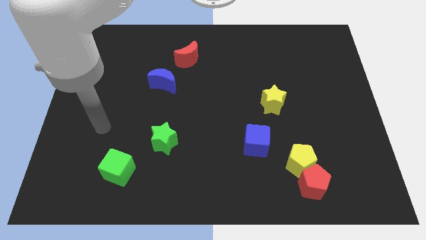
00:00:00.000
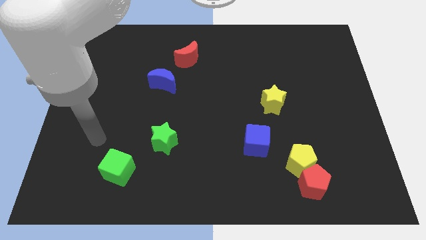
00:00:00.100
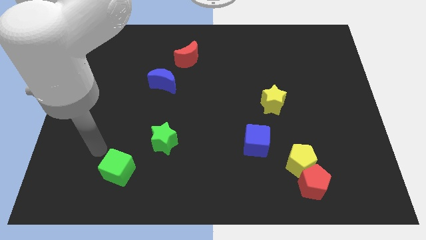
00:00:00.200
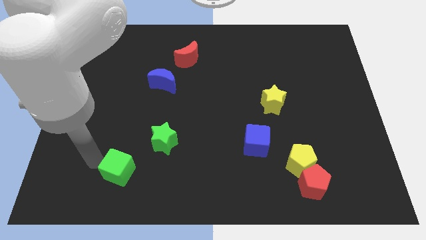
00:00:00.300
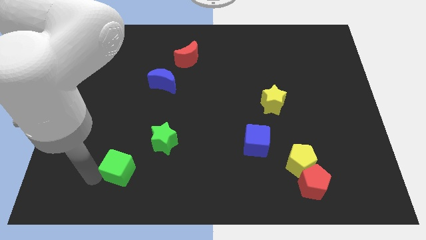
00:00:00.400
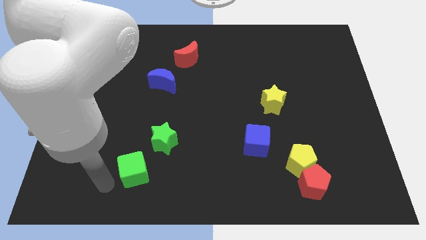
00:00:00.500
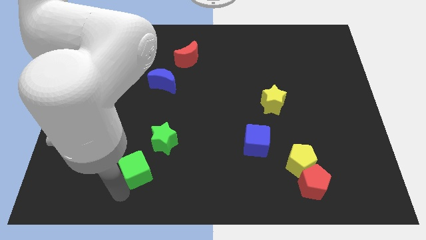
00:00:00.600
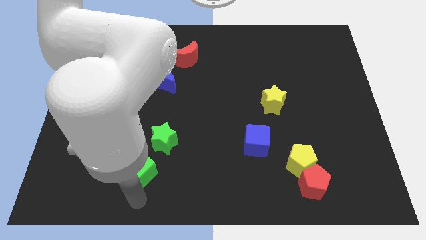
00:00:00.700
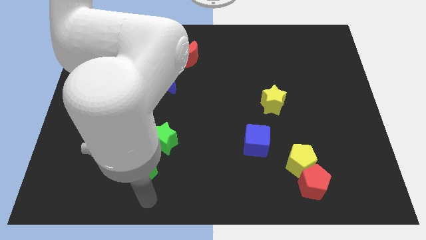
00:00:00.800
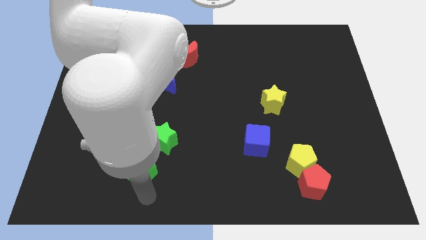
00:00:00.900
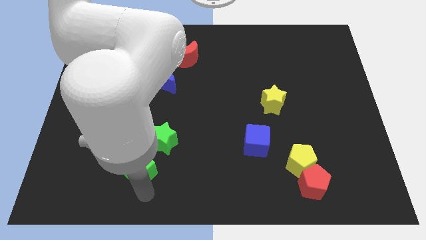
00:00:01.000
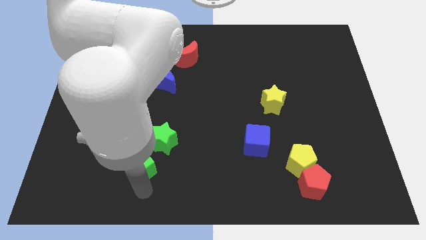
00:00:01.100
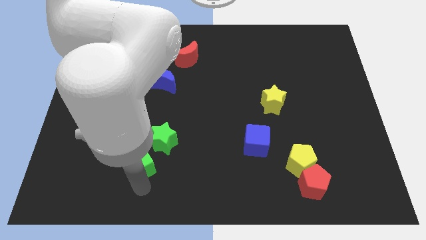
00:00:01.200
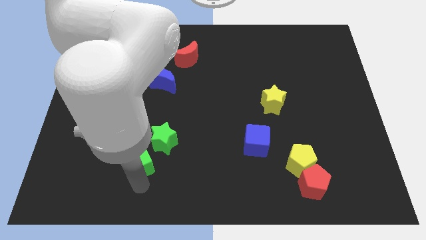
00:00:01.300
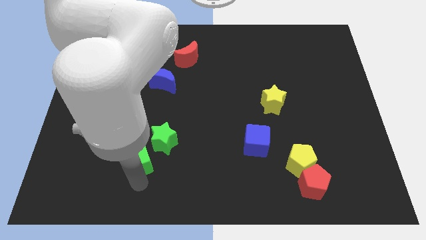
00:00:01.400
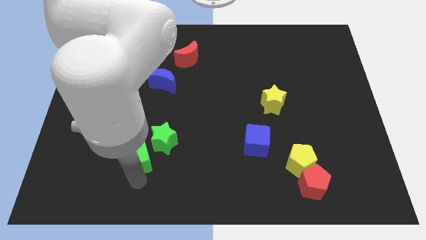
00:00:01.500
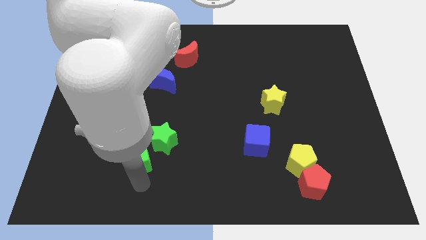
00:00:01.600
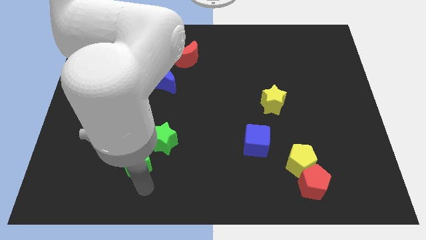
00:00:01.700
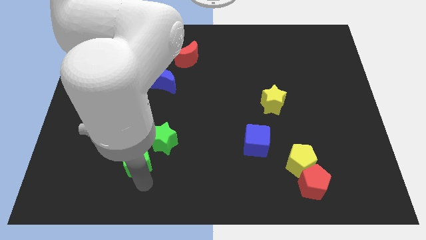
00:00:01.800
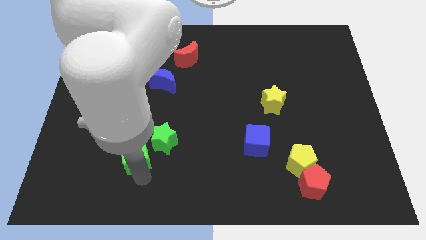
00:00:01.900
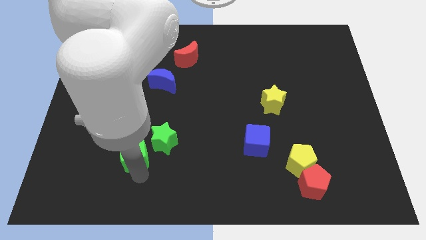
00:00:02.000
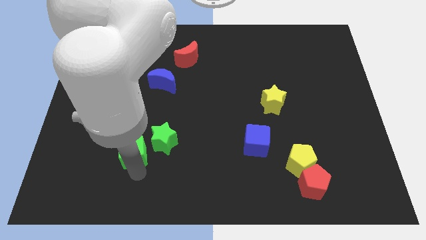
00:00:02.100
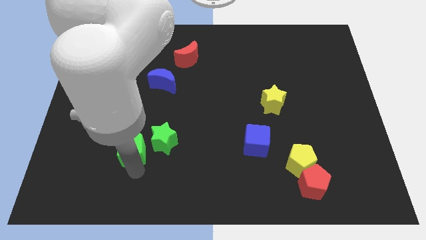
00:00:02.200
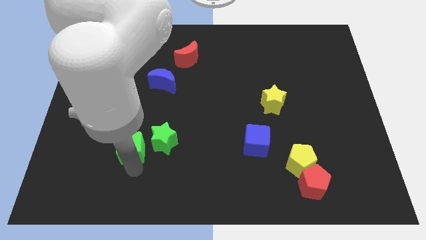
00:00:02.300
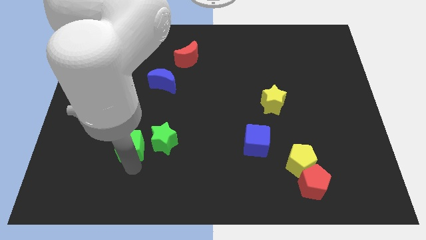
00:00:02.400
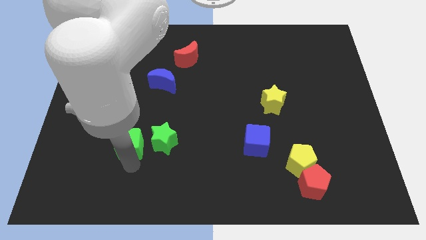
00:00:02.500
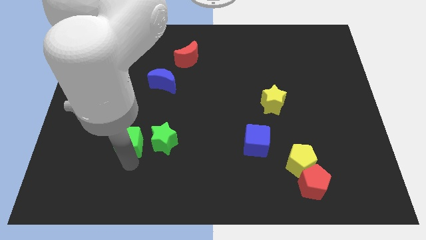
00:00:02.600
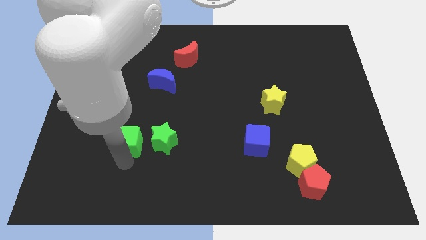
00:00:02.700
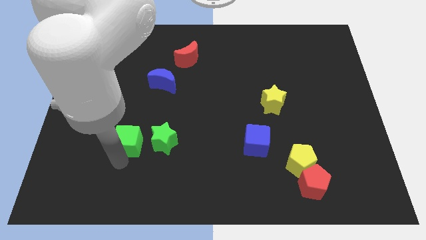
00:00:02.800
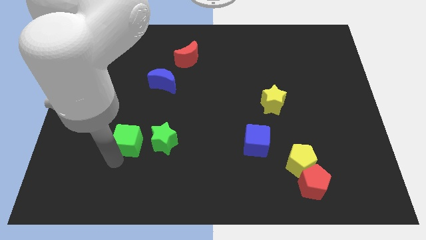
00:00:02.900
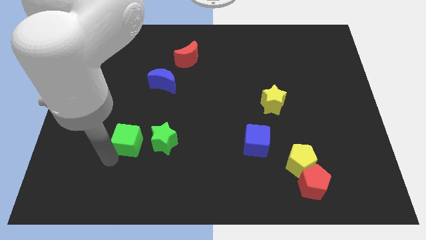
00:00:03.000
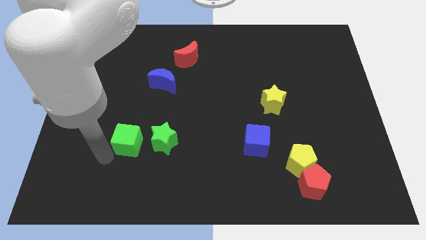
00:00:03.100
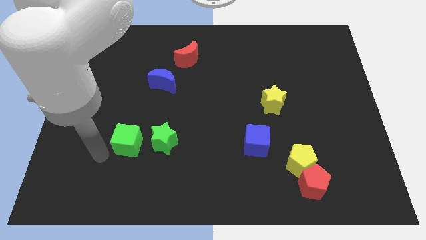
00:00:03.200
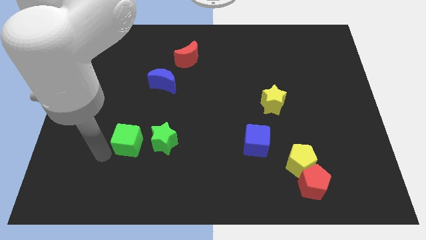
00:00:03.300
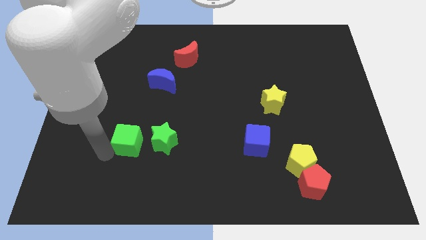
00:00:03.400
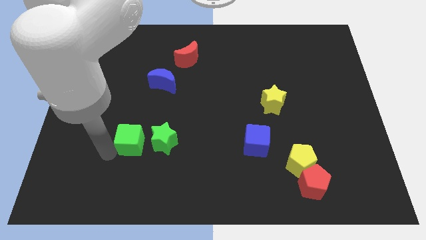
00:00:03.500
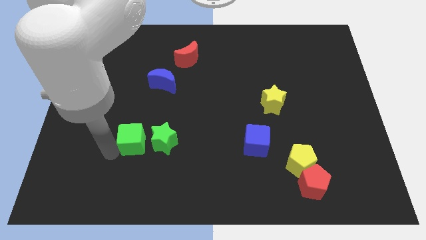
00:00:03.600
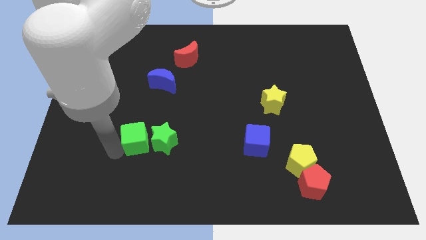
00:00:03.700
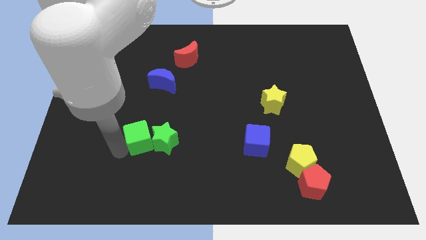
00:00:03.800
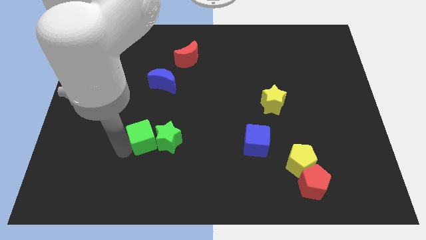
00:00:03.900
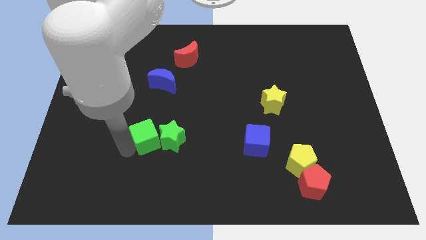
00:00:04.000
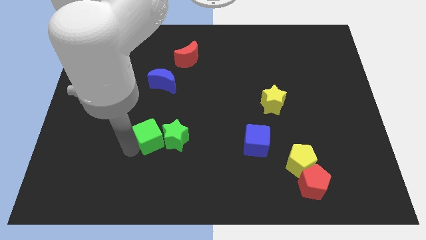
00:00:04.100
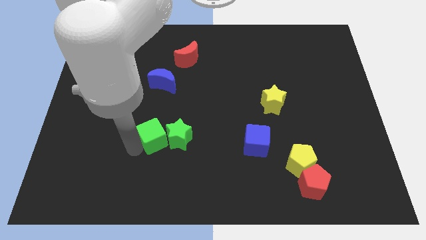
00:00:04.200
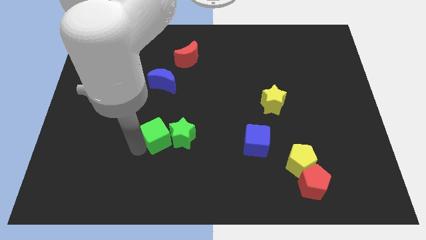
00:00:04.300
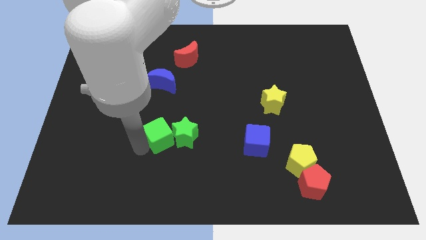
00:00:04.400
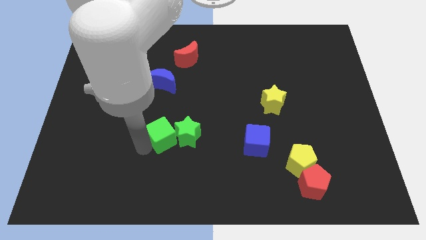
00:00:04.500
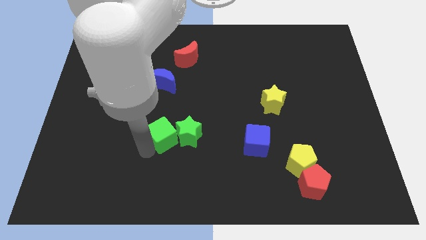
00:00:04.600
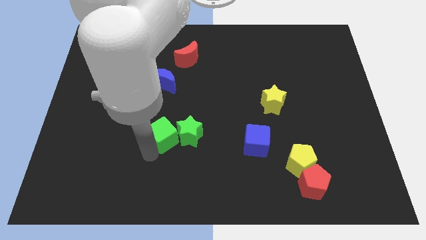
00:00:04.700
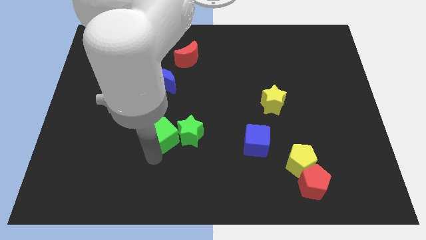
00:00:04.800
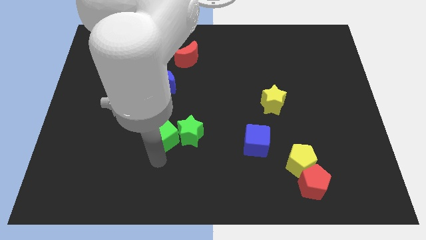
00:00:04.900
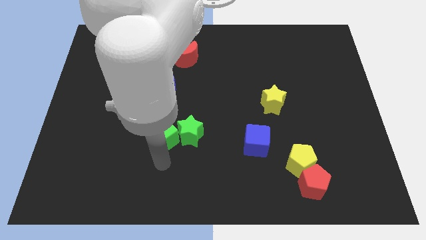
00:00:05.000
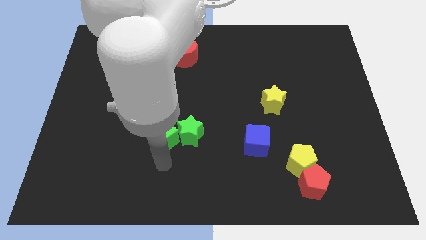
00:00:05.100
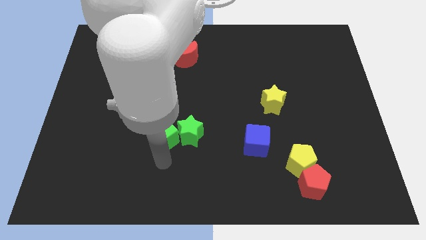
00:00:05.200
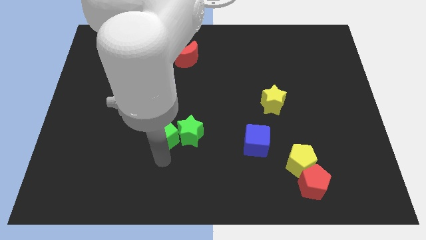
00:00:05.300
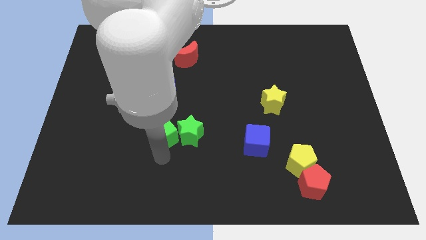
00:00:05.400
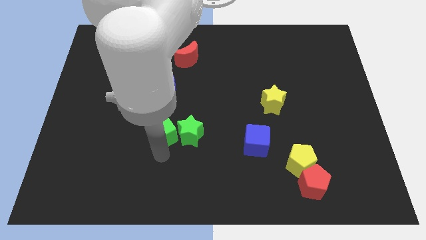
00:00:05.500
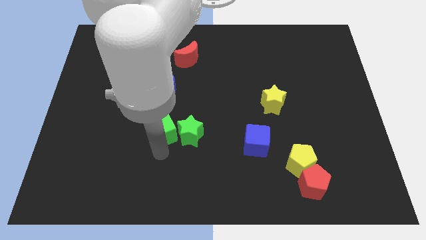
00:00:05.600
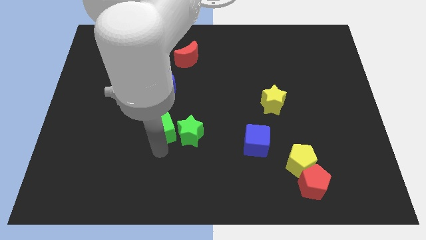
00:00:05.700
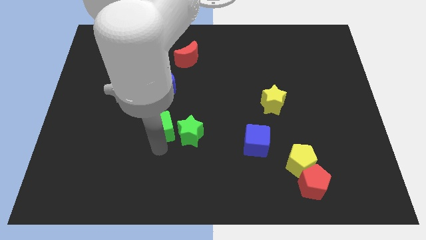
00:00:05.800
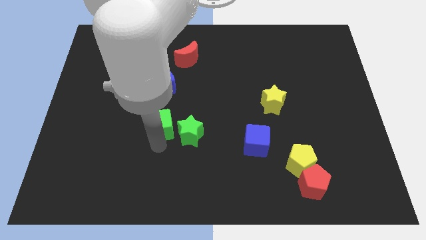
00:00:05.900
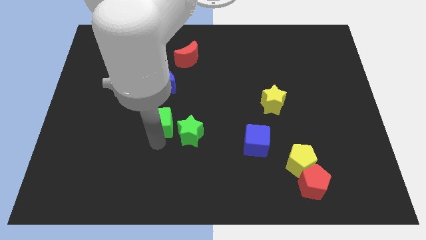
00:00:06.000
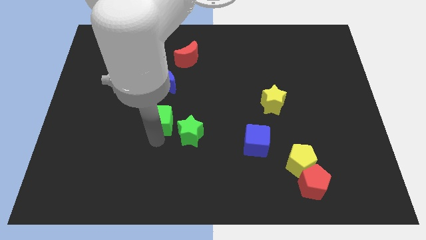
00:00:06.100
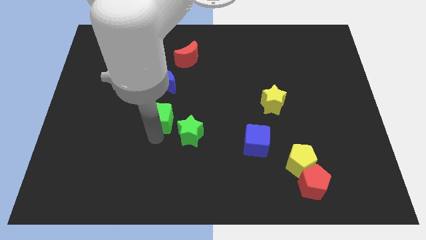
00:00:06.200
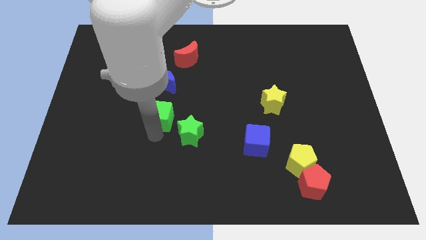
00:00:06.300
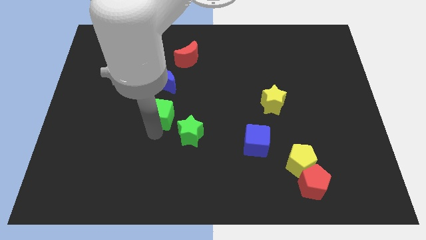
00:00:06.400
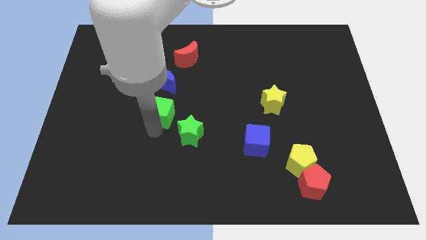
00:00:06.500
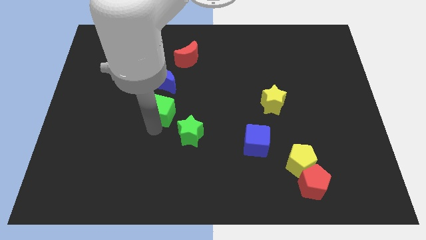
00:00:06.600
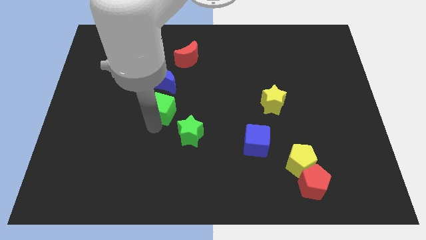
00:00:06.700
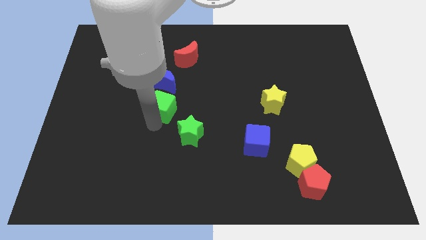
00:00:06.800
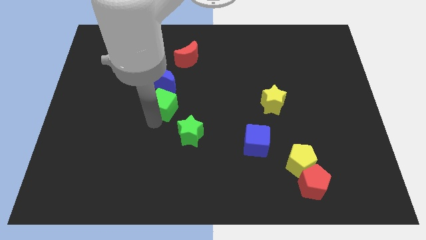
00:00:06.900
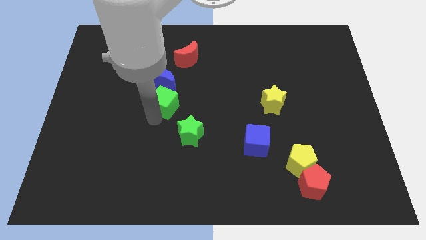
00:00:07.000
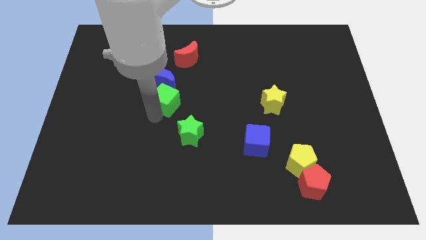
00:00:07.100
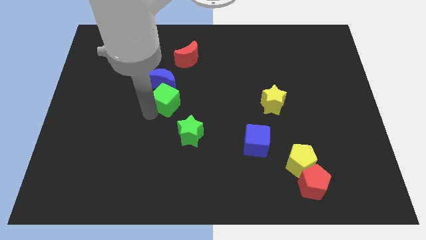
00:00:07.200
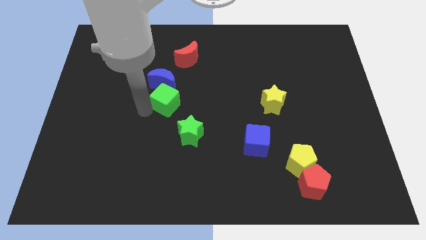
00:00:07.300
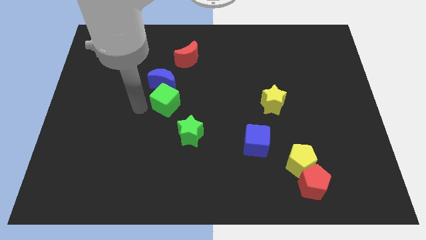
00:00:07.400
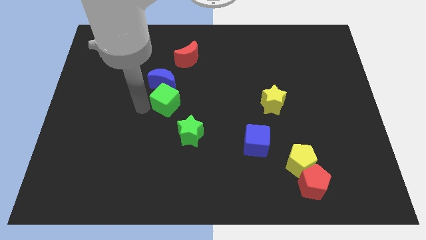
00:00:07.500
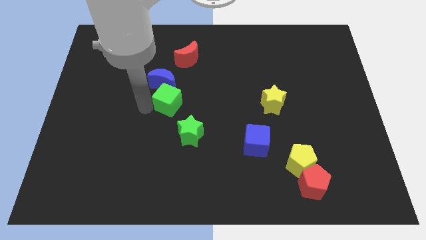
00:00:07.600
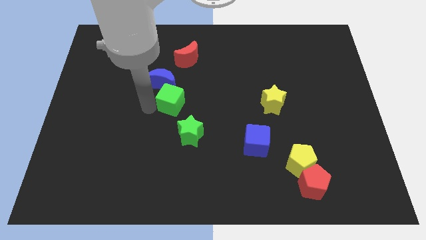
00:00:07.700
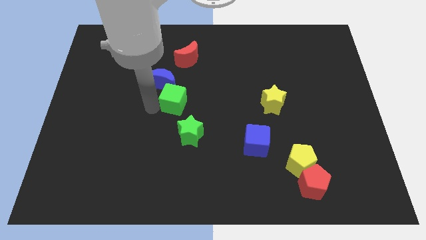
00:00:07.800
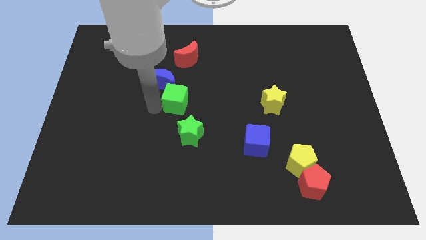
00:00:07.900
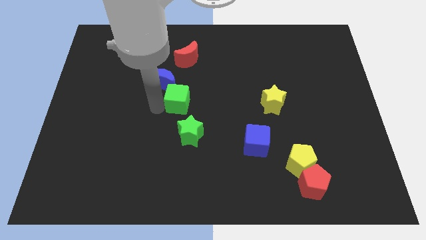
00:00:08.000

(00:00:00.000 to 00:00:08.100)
move the green cube upwards and then to the right
